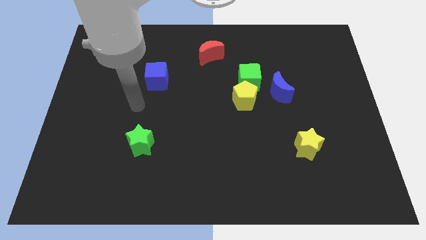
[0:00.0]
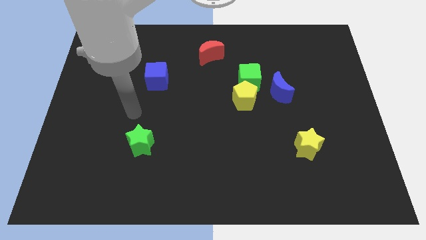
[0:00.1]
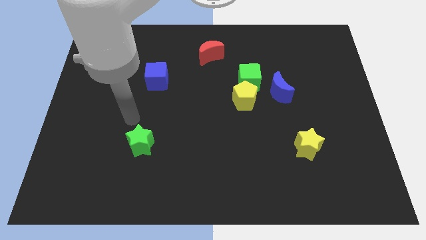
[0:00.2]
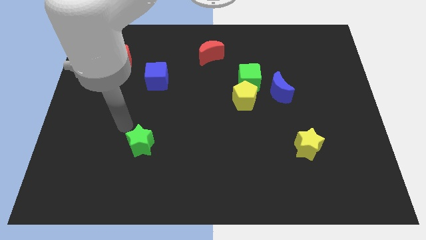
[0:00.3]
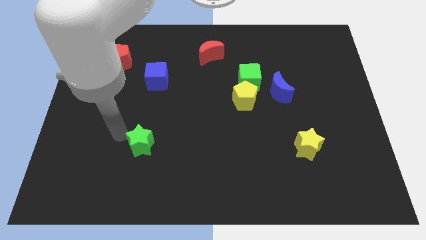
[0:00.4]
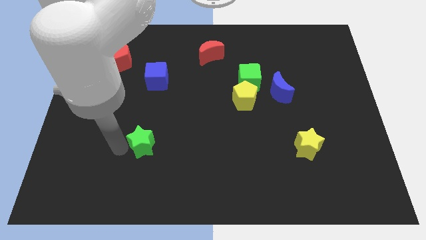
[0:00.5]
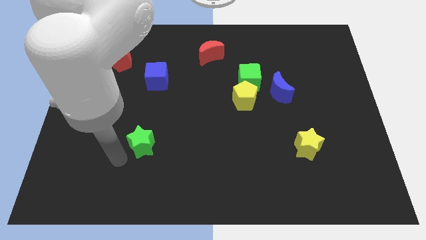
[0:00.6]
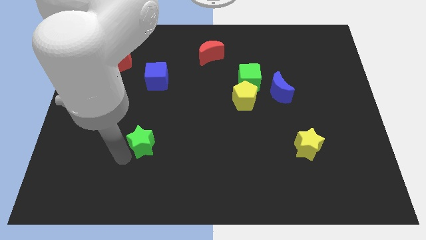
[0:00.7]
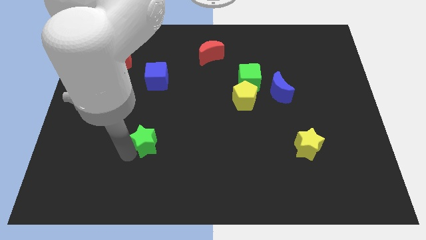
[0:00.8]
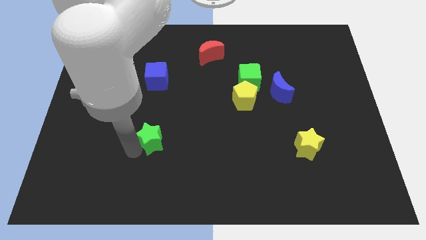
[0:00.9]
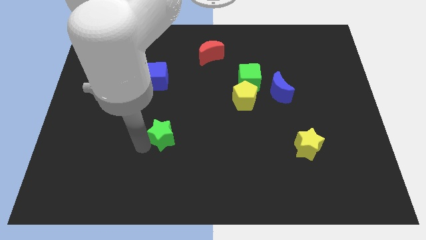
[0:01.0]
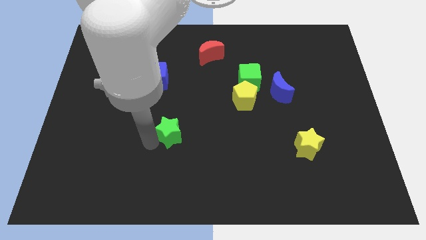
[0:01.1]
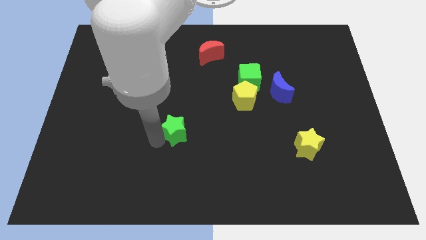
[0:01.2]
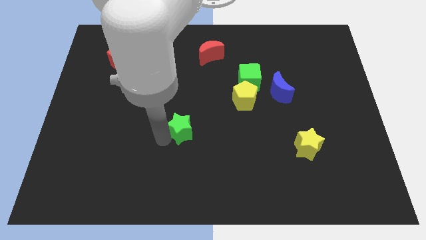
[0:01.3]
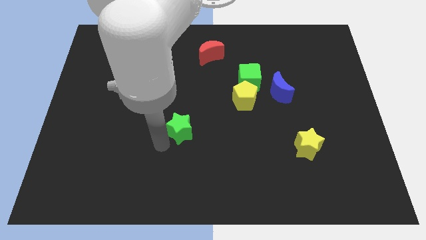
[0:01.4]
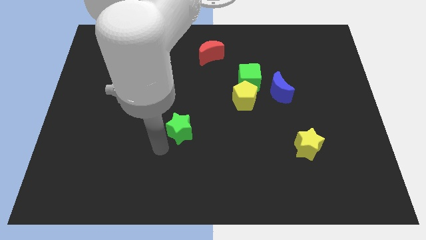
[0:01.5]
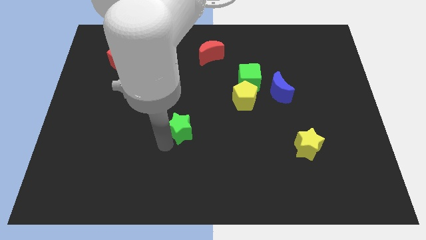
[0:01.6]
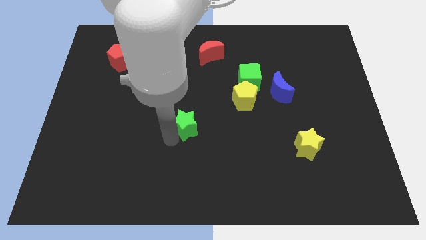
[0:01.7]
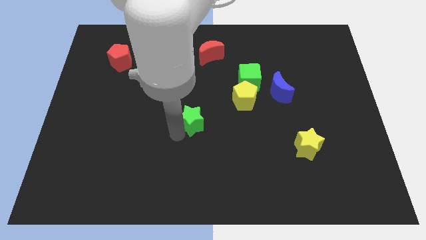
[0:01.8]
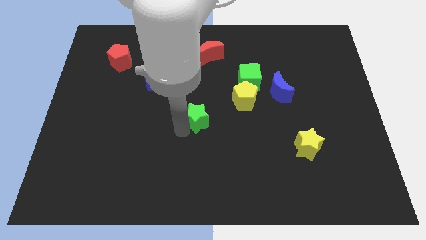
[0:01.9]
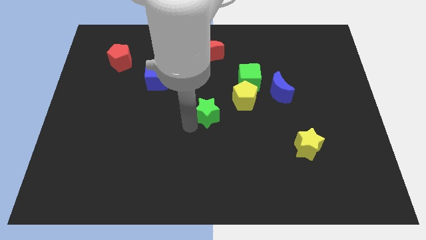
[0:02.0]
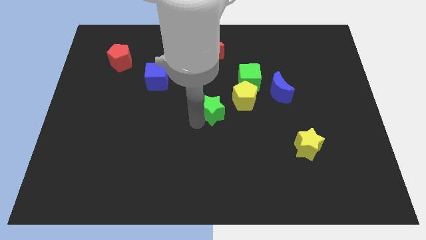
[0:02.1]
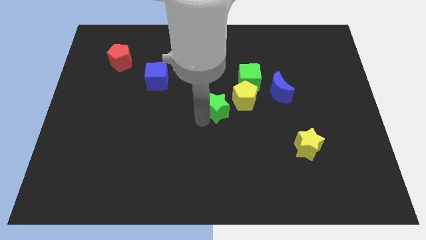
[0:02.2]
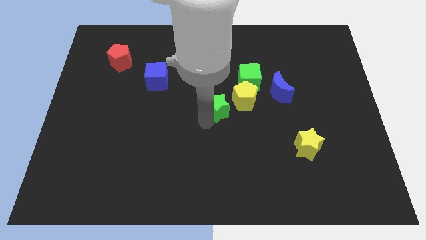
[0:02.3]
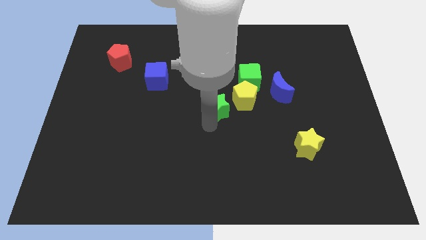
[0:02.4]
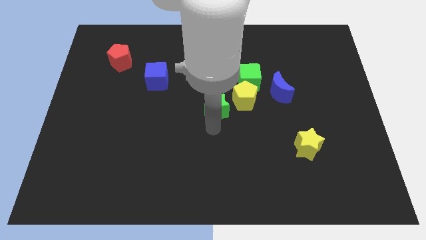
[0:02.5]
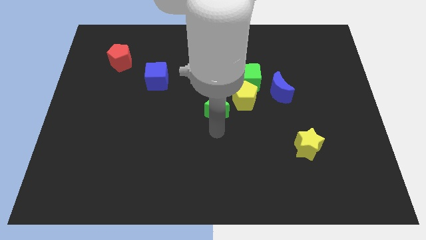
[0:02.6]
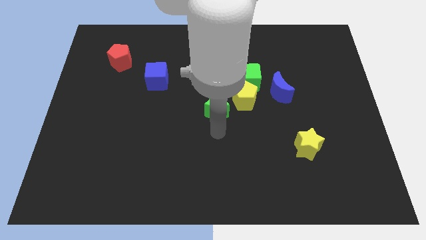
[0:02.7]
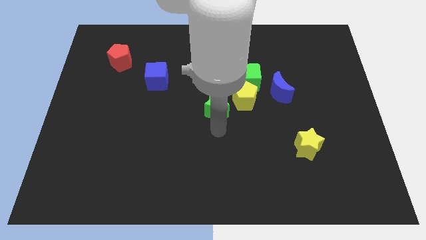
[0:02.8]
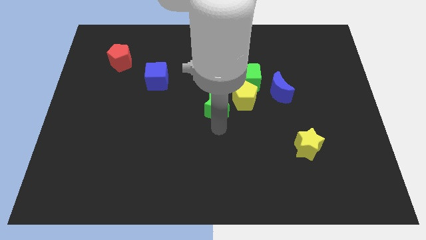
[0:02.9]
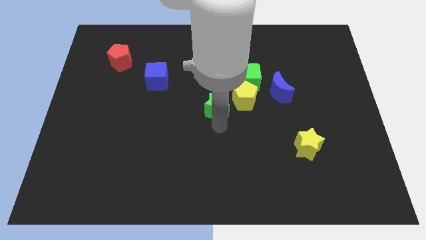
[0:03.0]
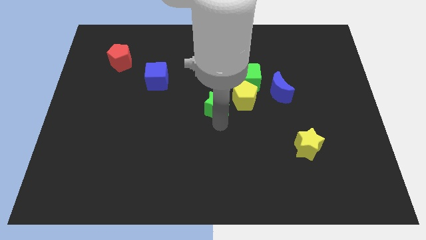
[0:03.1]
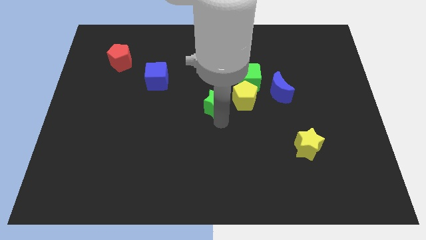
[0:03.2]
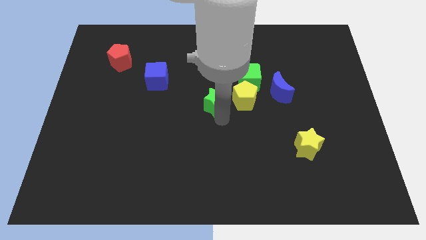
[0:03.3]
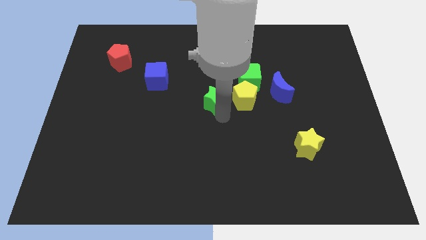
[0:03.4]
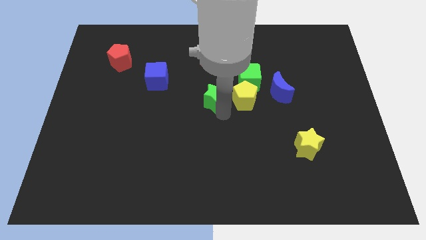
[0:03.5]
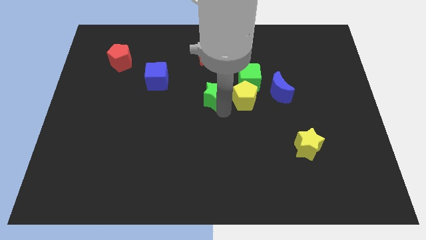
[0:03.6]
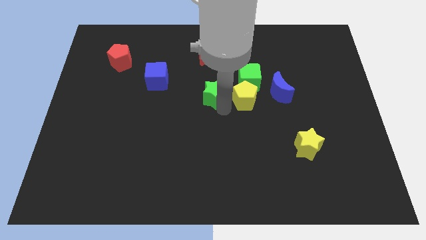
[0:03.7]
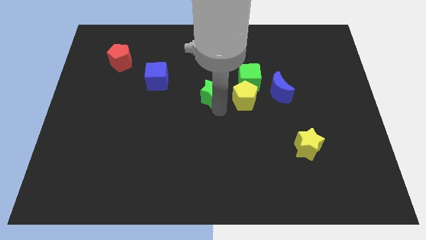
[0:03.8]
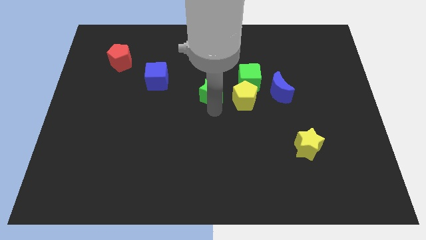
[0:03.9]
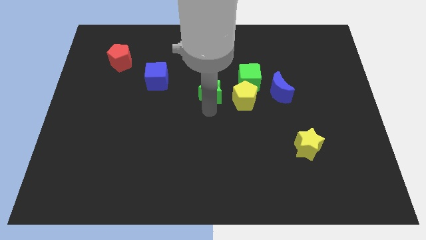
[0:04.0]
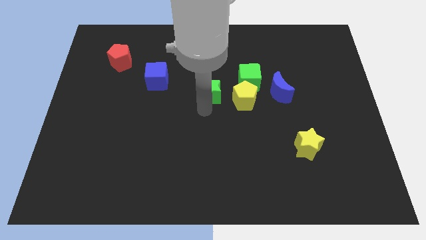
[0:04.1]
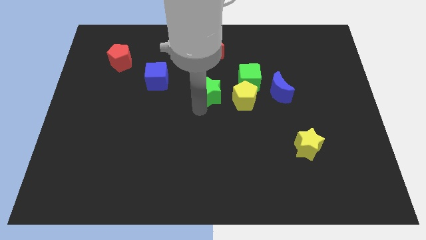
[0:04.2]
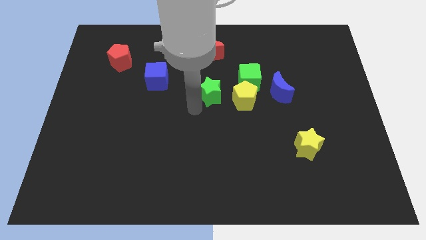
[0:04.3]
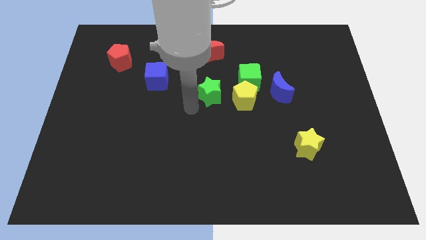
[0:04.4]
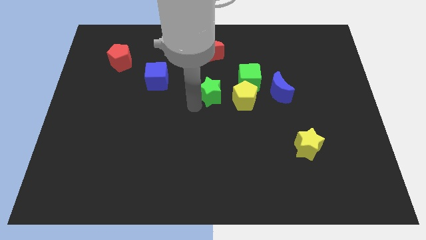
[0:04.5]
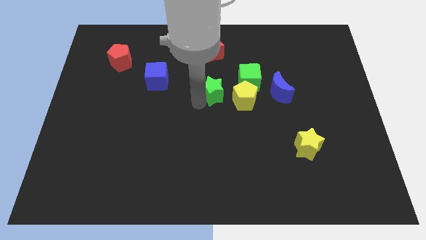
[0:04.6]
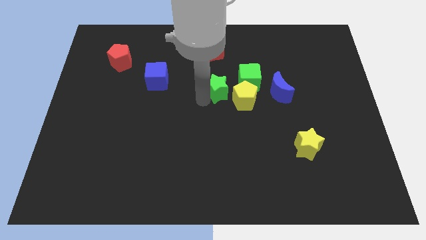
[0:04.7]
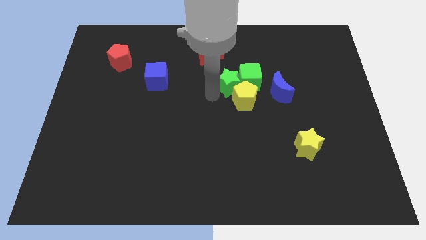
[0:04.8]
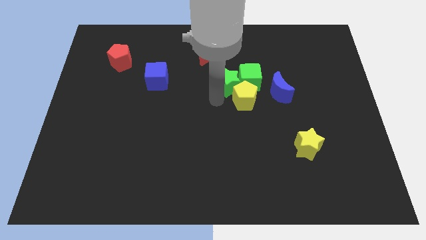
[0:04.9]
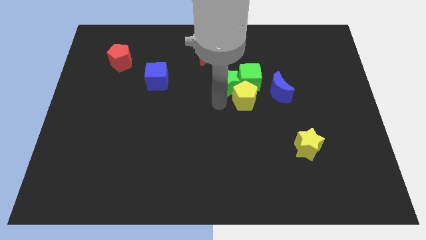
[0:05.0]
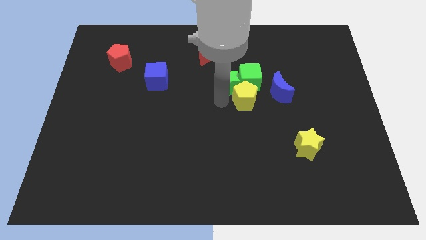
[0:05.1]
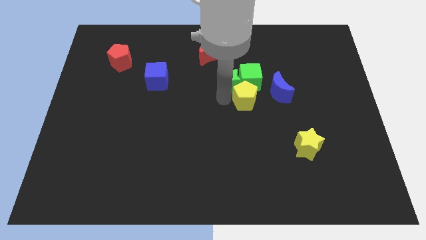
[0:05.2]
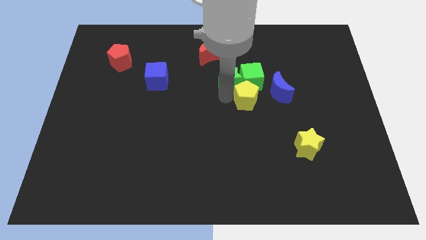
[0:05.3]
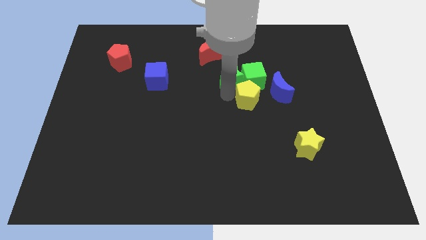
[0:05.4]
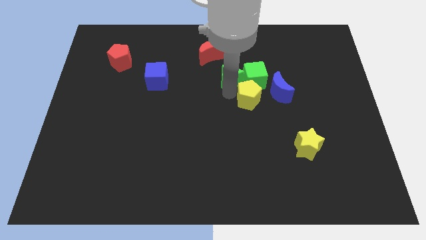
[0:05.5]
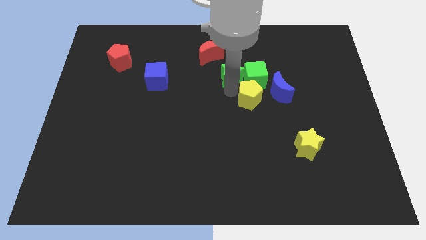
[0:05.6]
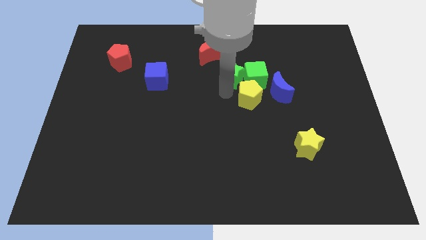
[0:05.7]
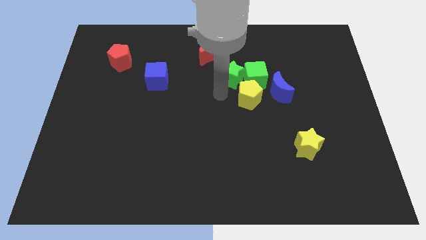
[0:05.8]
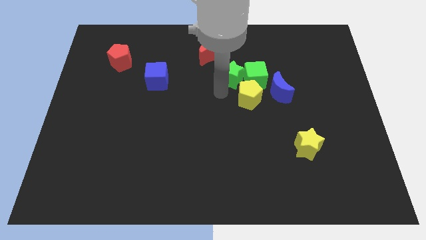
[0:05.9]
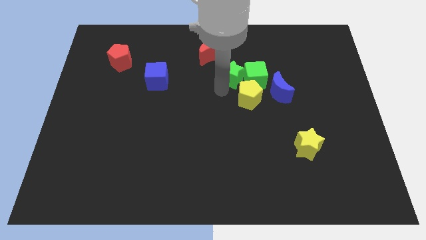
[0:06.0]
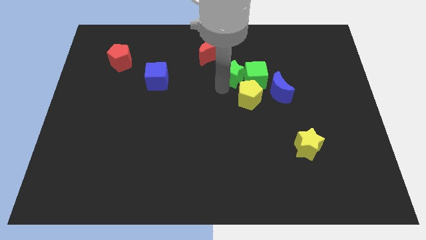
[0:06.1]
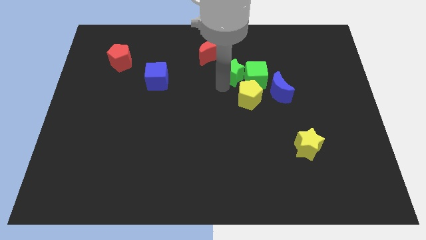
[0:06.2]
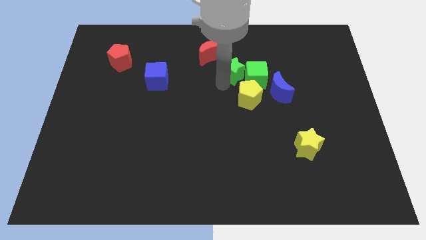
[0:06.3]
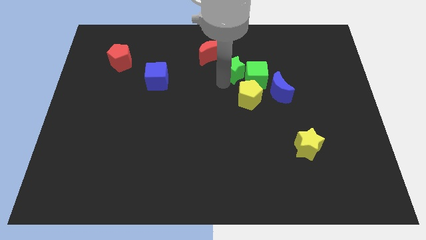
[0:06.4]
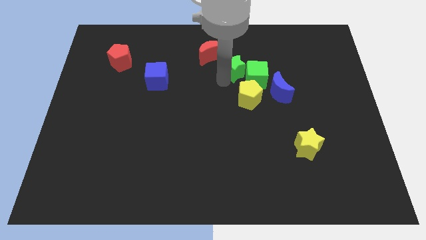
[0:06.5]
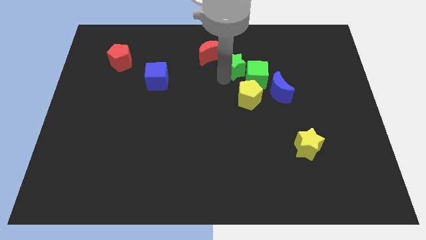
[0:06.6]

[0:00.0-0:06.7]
slide the green star just right of the red moon

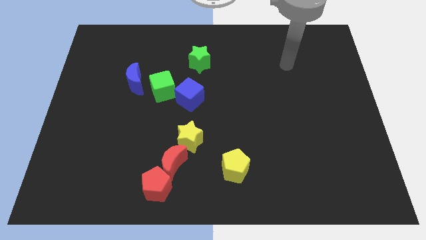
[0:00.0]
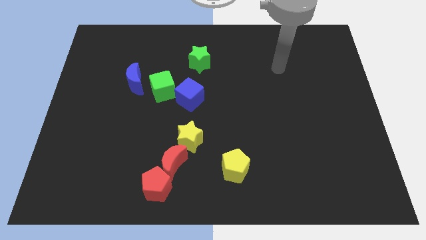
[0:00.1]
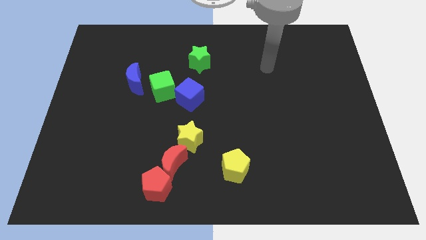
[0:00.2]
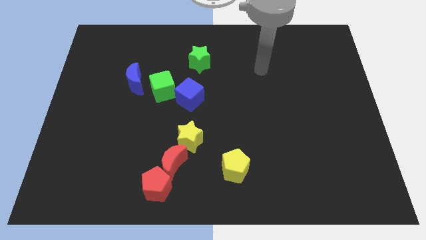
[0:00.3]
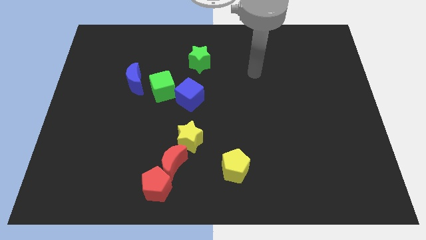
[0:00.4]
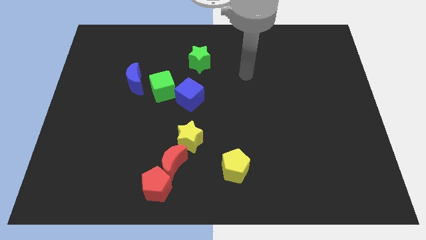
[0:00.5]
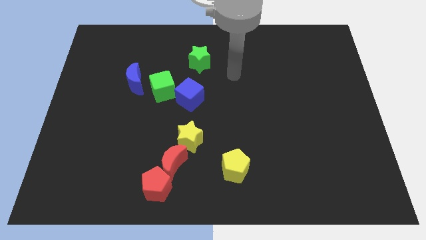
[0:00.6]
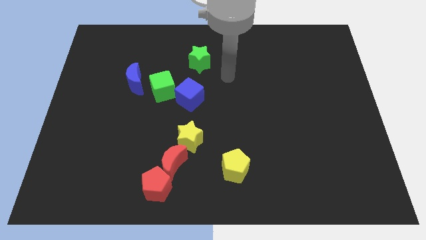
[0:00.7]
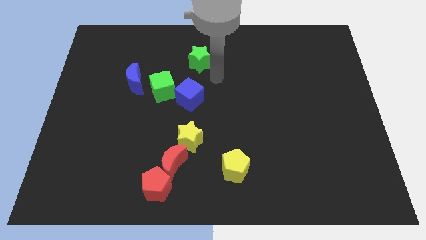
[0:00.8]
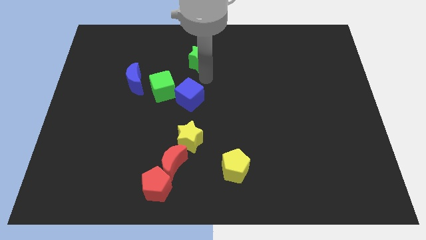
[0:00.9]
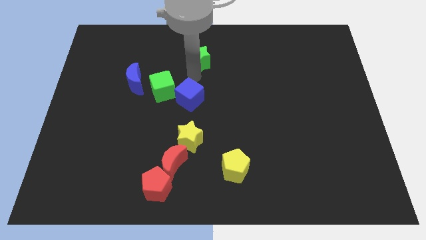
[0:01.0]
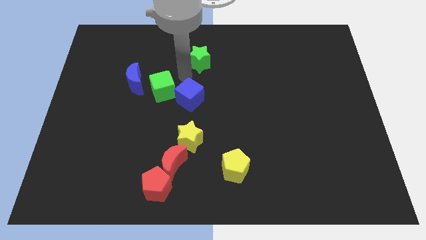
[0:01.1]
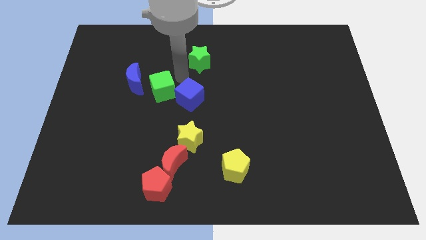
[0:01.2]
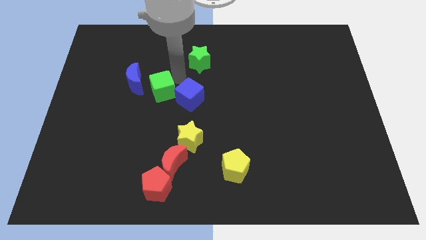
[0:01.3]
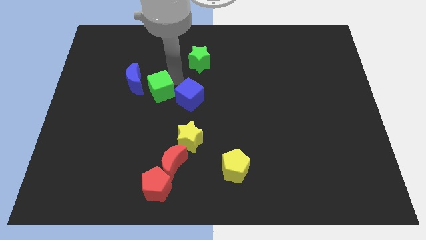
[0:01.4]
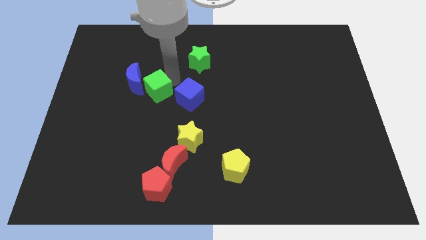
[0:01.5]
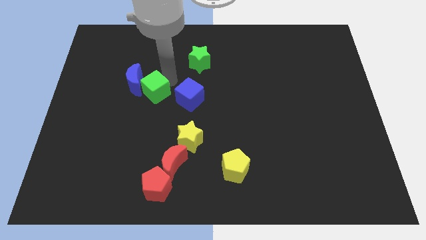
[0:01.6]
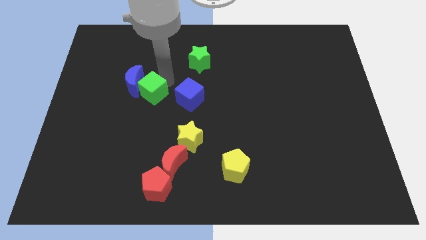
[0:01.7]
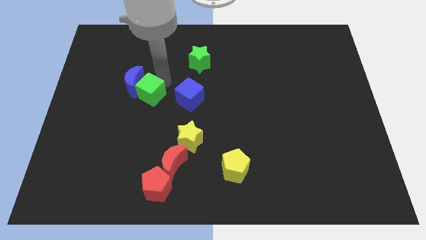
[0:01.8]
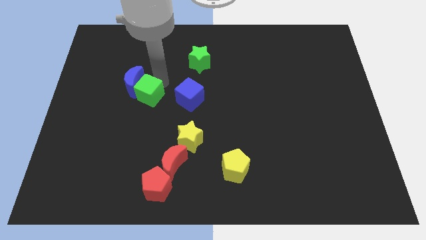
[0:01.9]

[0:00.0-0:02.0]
slide the green cube to the bottom side of the blue moon
